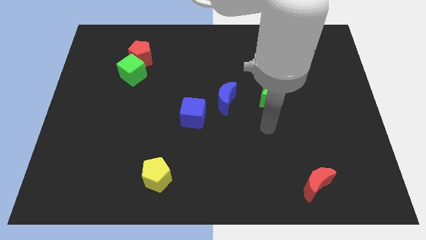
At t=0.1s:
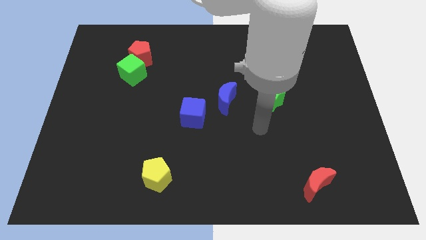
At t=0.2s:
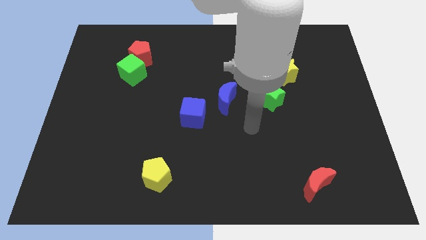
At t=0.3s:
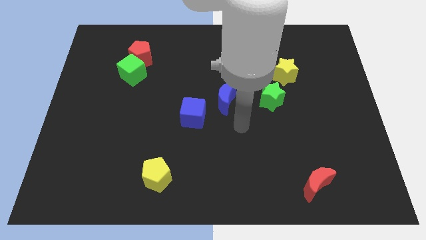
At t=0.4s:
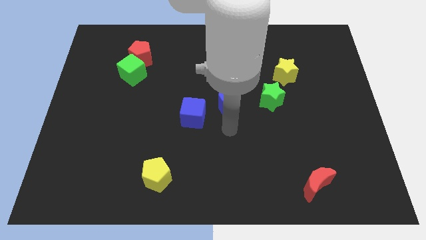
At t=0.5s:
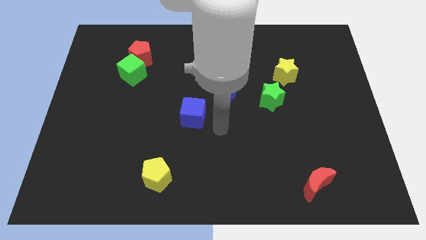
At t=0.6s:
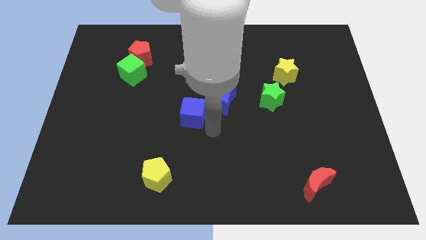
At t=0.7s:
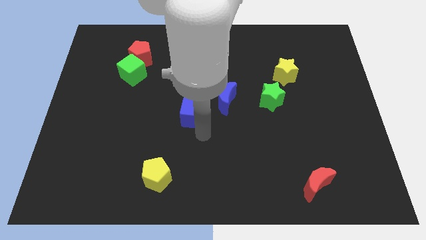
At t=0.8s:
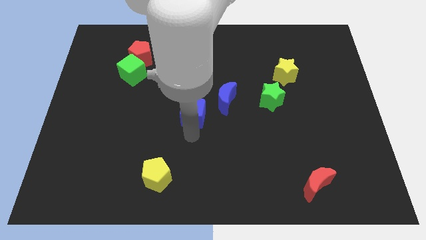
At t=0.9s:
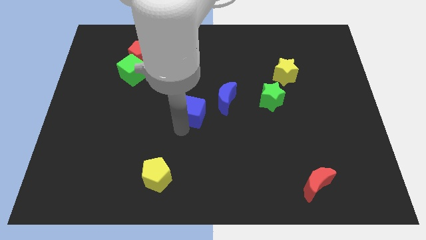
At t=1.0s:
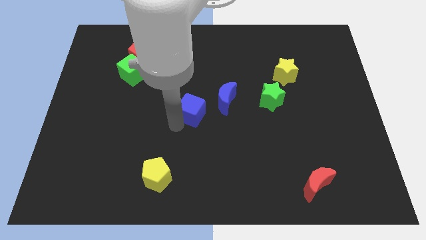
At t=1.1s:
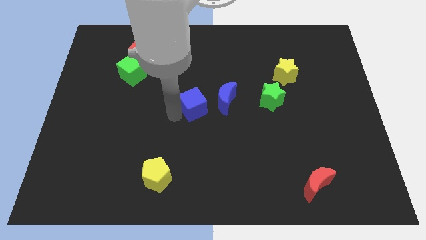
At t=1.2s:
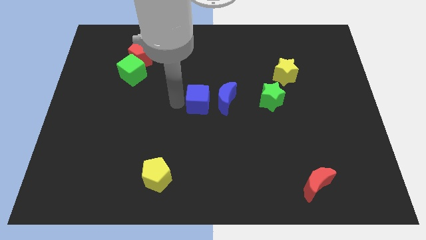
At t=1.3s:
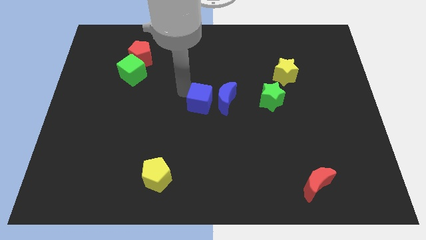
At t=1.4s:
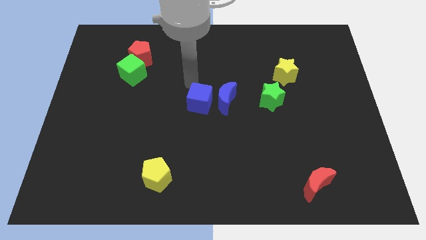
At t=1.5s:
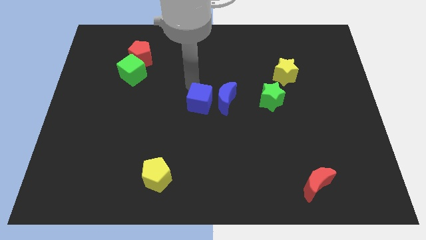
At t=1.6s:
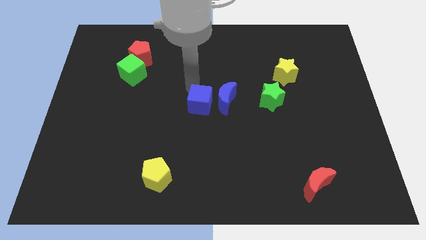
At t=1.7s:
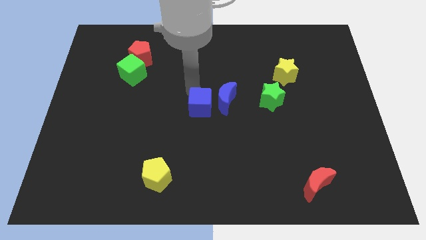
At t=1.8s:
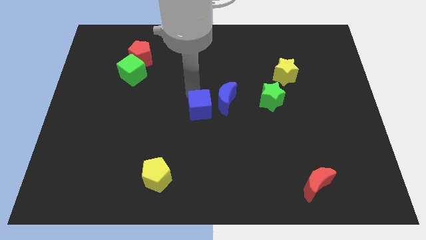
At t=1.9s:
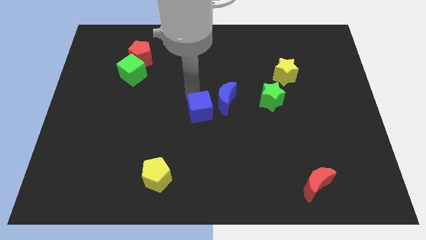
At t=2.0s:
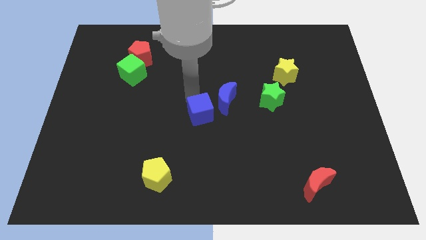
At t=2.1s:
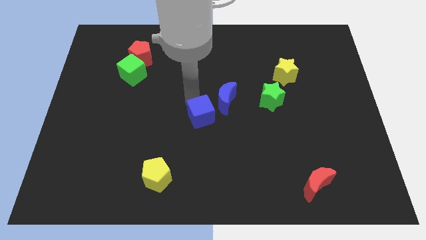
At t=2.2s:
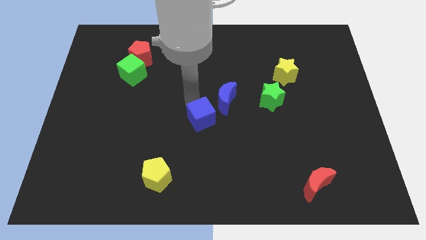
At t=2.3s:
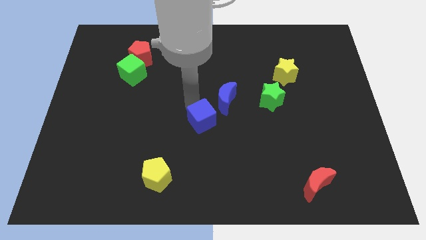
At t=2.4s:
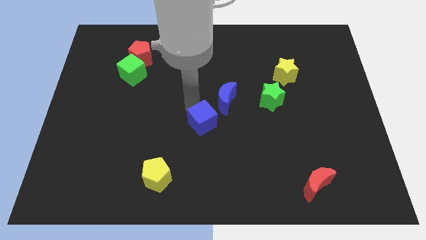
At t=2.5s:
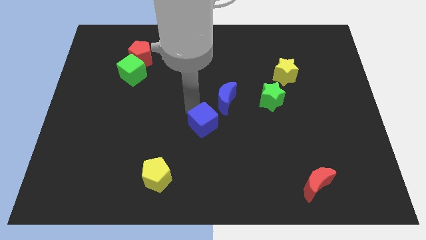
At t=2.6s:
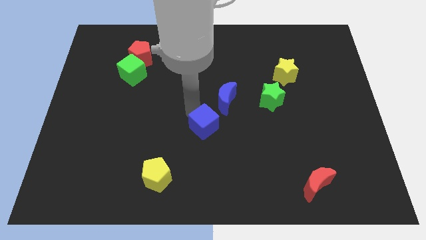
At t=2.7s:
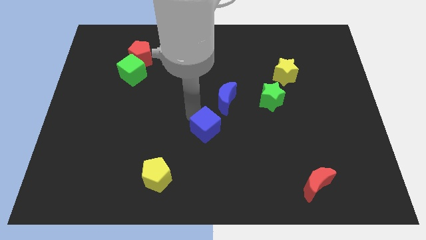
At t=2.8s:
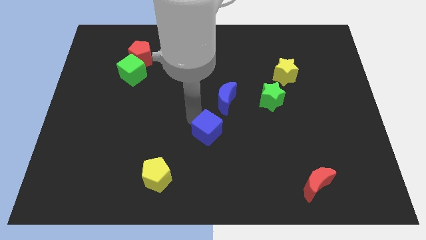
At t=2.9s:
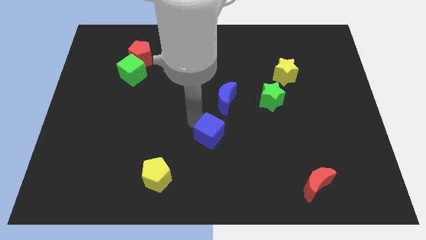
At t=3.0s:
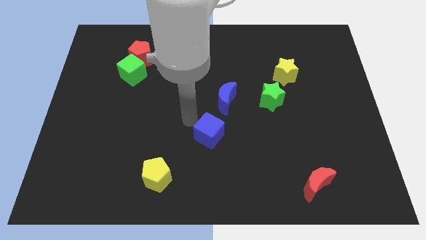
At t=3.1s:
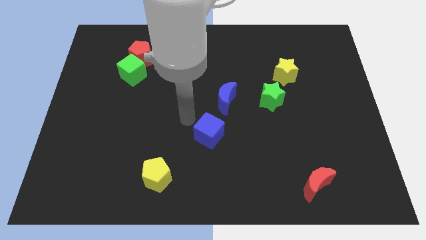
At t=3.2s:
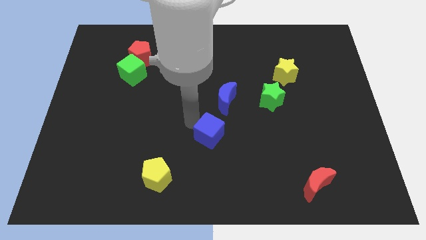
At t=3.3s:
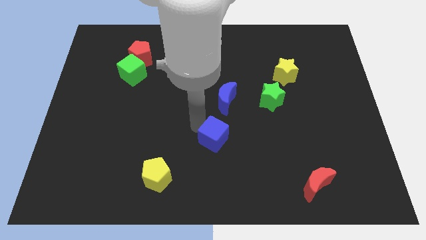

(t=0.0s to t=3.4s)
push the blue cube downwards and then right a little bit

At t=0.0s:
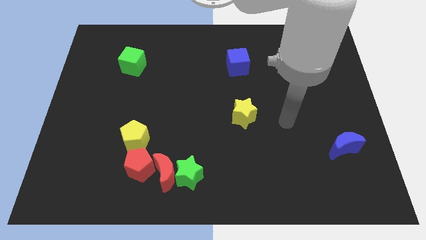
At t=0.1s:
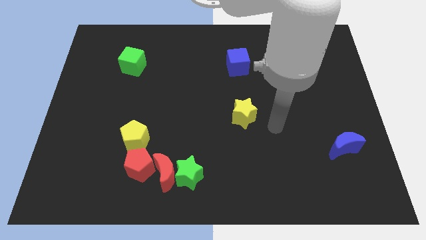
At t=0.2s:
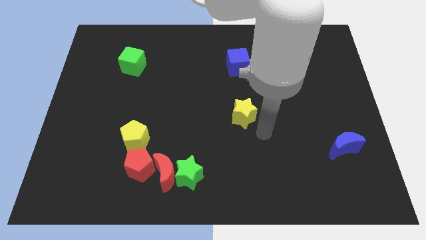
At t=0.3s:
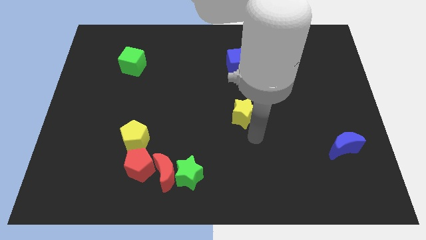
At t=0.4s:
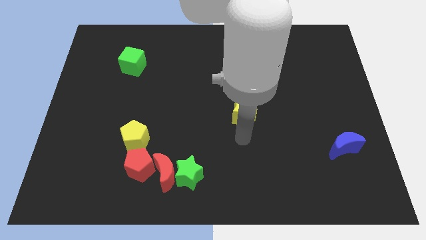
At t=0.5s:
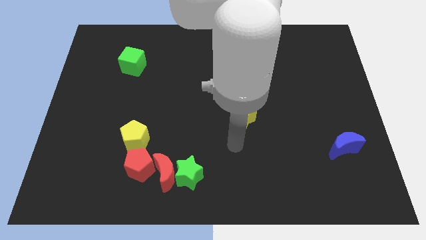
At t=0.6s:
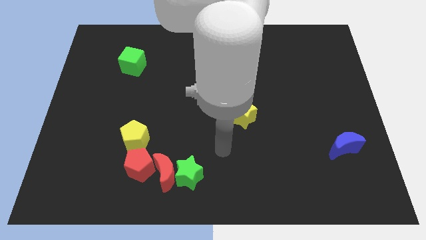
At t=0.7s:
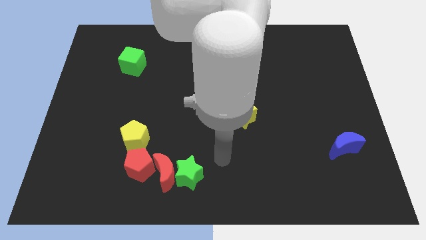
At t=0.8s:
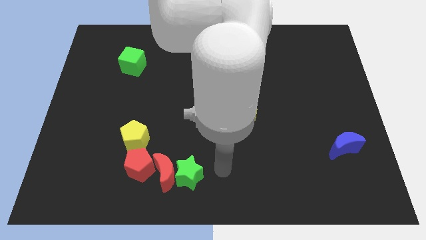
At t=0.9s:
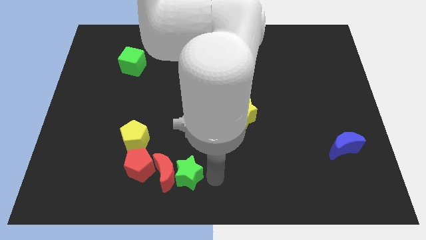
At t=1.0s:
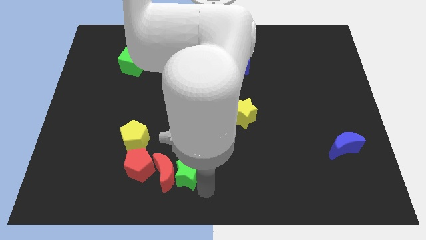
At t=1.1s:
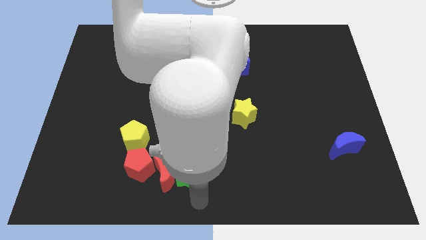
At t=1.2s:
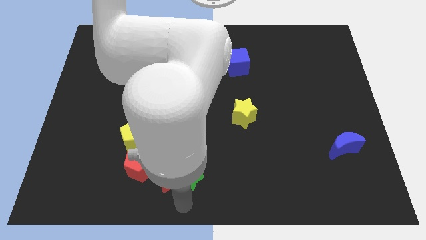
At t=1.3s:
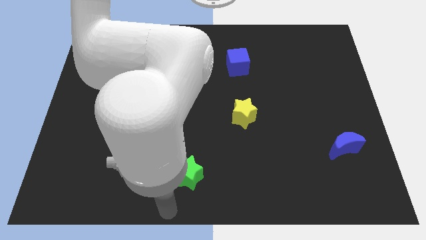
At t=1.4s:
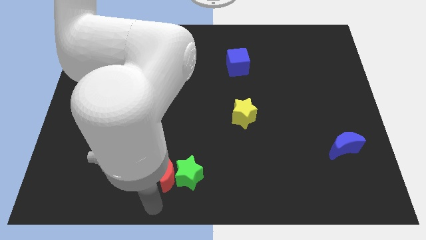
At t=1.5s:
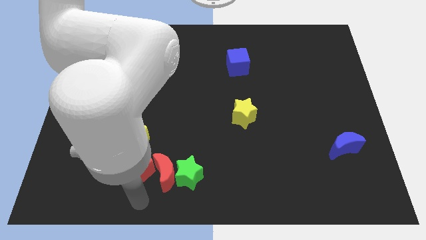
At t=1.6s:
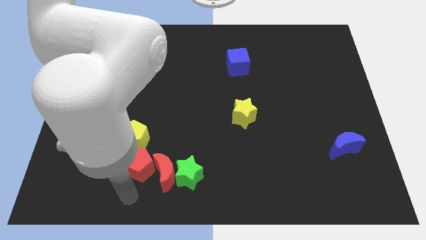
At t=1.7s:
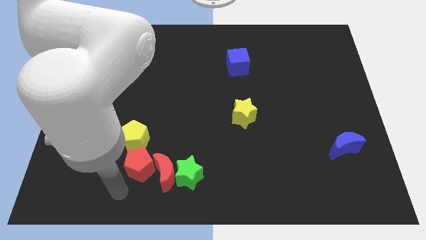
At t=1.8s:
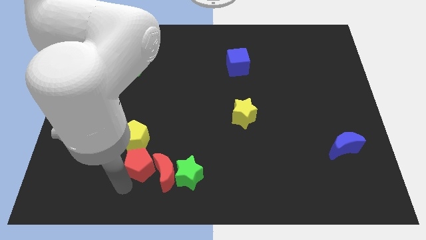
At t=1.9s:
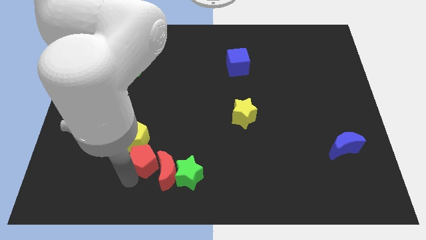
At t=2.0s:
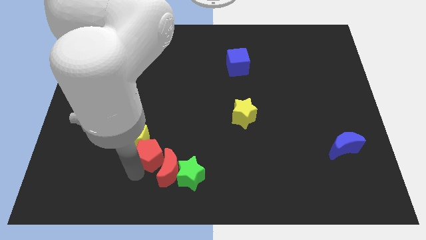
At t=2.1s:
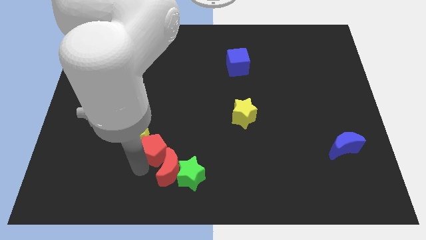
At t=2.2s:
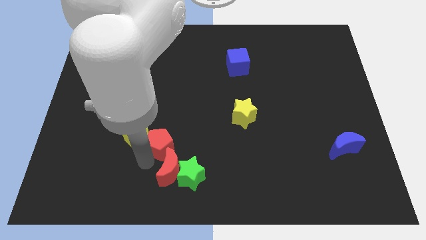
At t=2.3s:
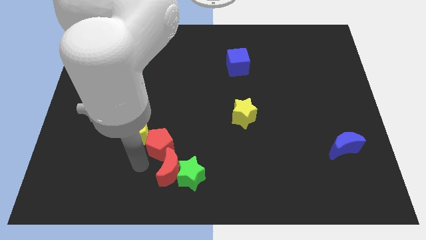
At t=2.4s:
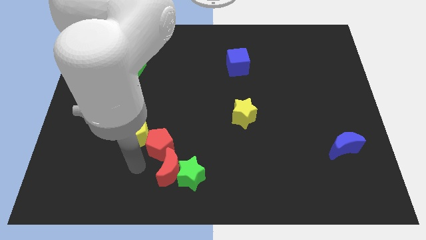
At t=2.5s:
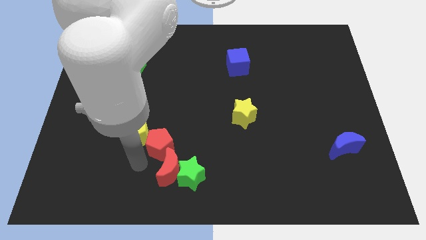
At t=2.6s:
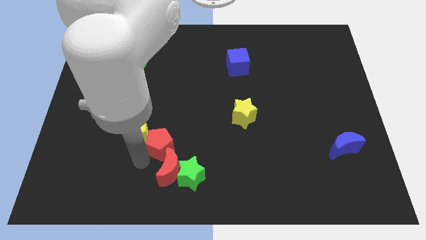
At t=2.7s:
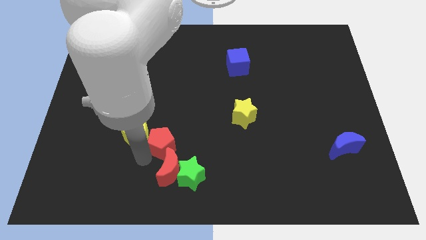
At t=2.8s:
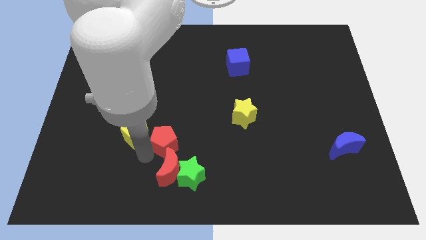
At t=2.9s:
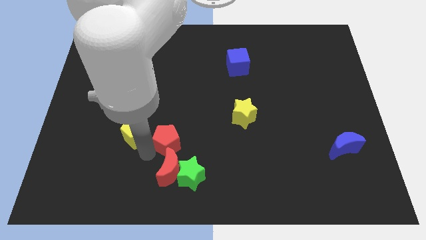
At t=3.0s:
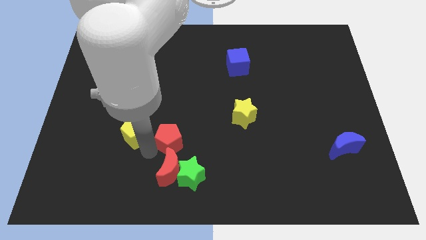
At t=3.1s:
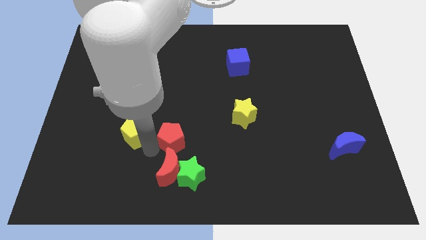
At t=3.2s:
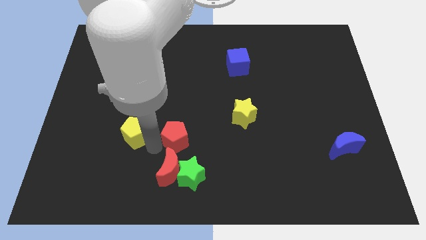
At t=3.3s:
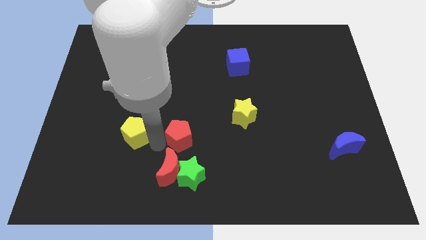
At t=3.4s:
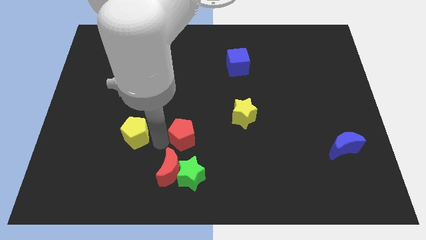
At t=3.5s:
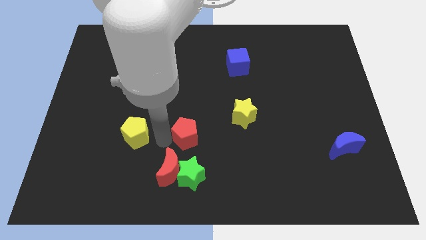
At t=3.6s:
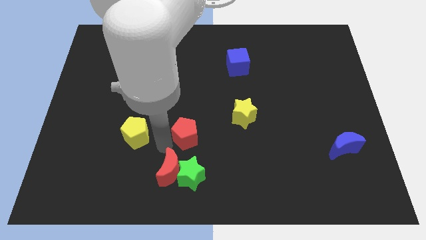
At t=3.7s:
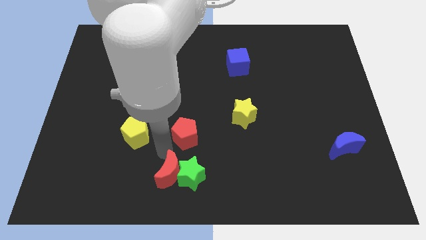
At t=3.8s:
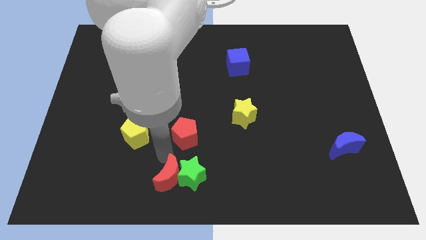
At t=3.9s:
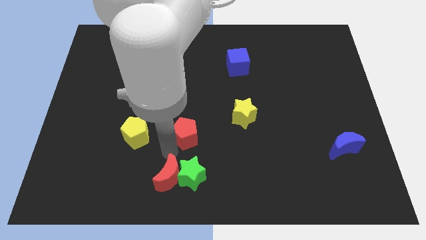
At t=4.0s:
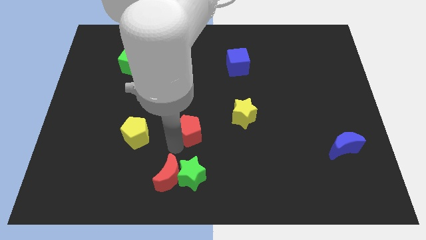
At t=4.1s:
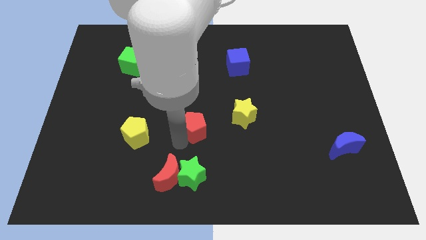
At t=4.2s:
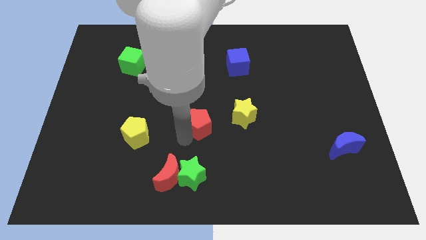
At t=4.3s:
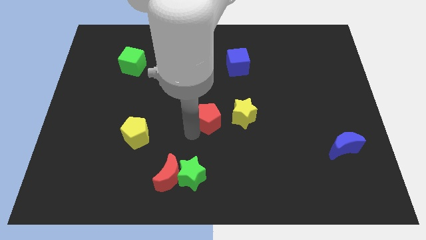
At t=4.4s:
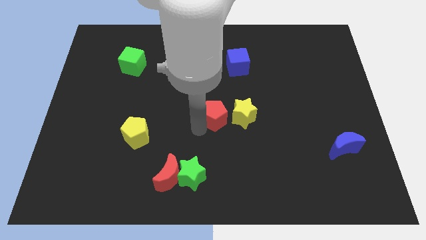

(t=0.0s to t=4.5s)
move the red pentagon up and then to the right

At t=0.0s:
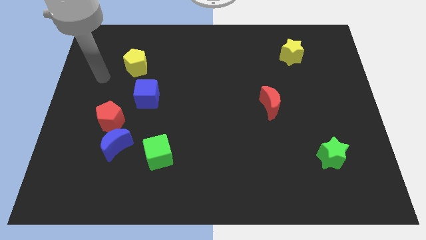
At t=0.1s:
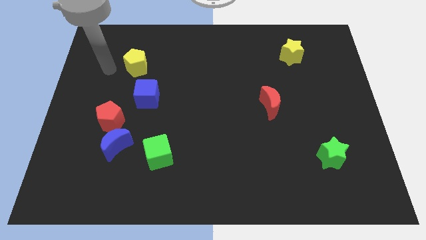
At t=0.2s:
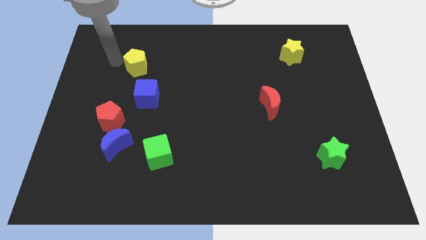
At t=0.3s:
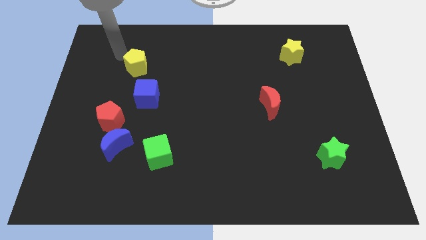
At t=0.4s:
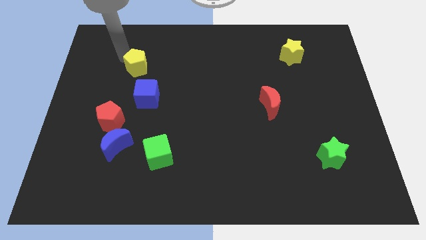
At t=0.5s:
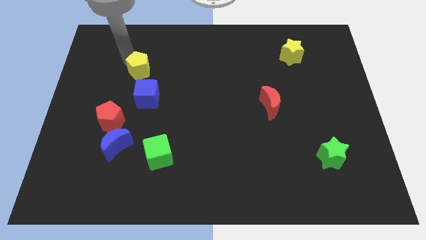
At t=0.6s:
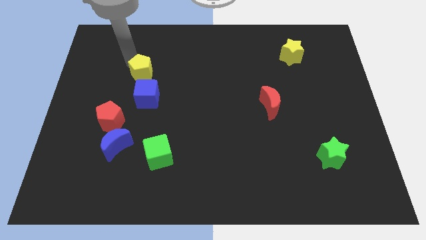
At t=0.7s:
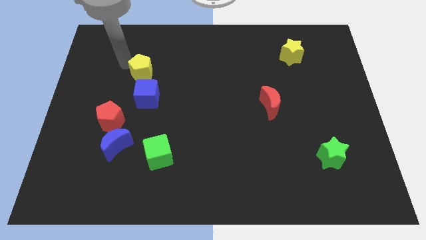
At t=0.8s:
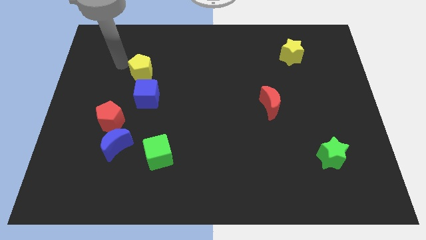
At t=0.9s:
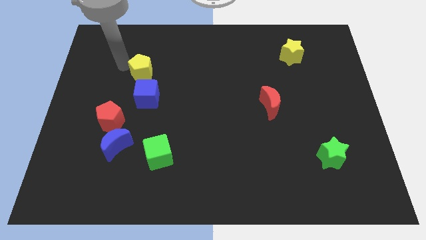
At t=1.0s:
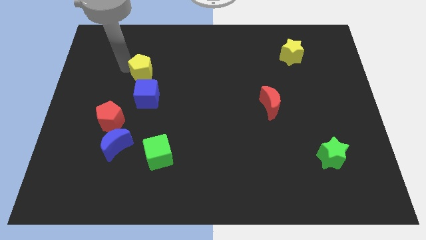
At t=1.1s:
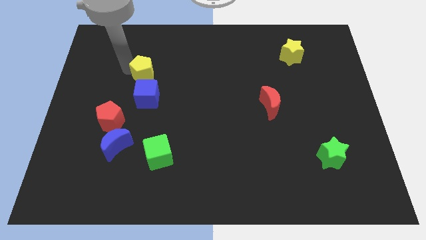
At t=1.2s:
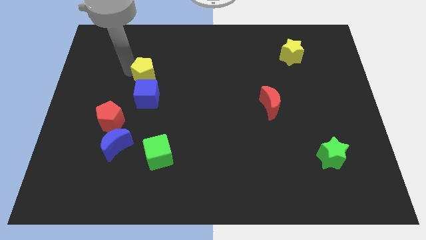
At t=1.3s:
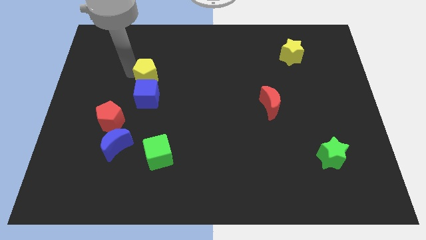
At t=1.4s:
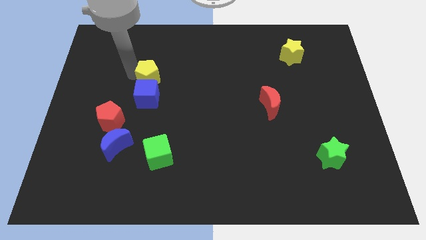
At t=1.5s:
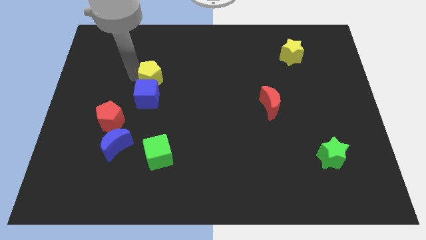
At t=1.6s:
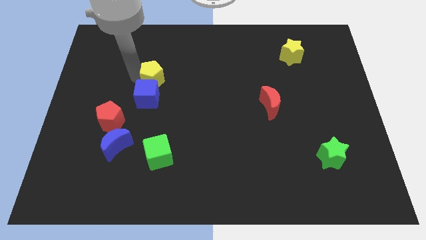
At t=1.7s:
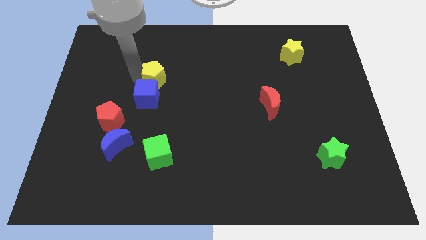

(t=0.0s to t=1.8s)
slide the yellow pentagon somewhat down and then right
